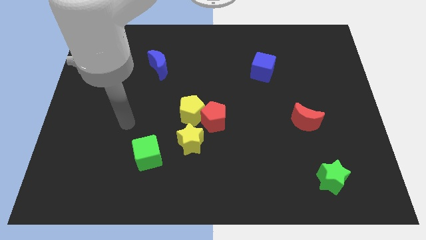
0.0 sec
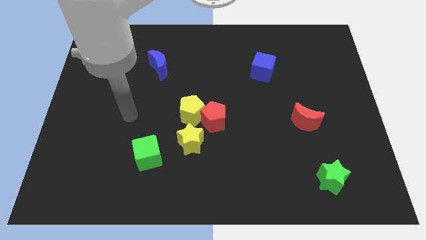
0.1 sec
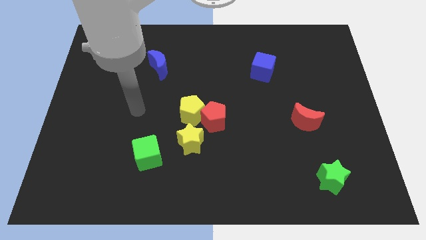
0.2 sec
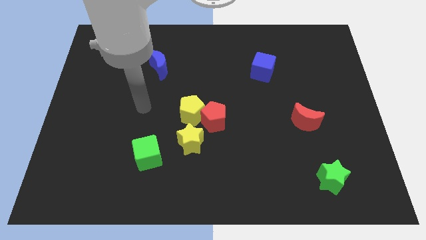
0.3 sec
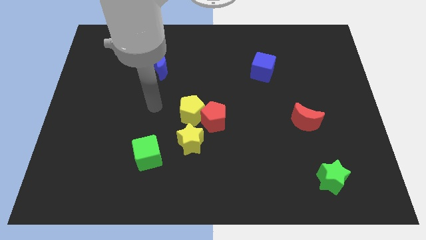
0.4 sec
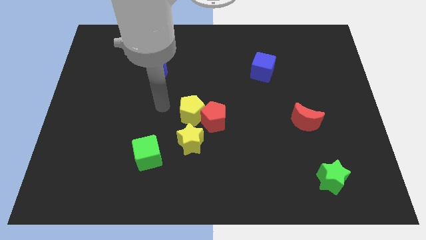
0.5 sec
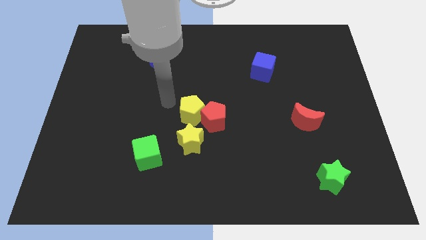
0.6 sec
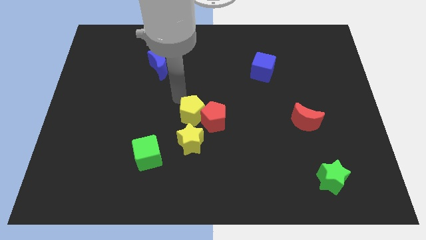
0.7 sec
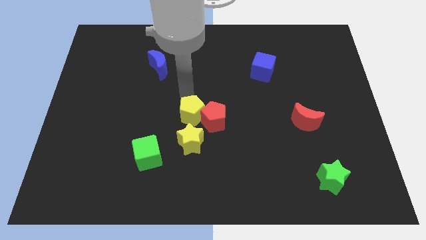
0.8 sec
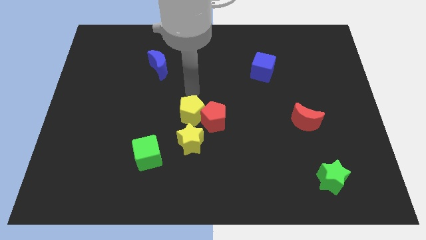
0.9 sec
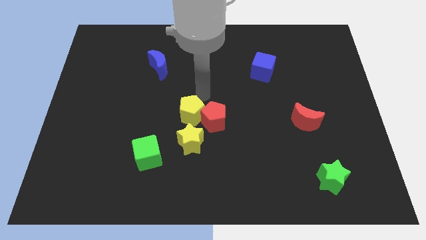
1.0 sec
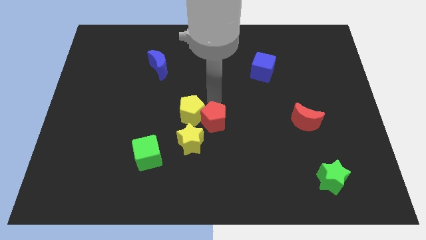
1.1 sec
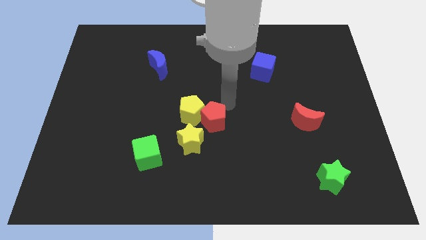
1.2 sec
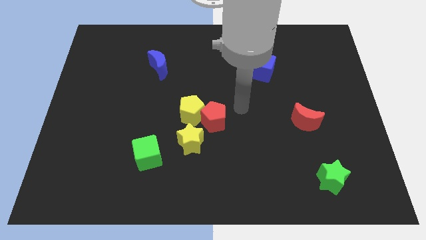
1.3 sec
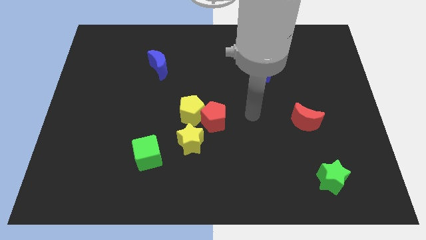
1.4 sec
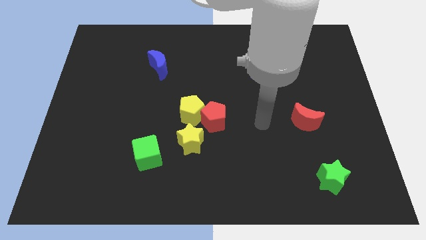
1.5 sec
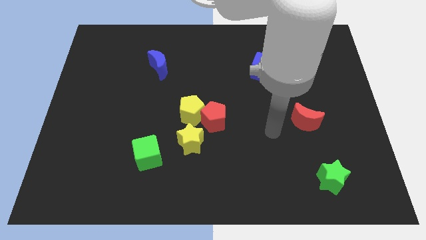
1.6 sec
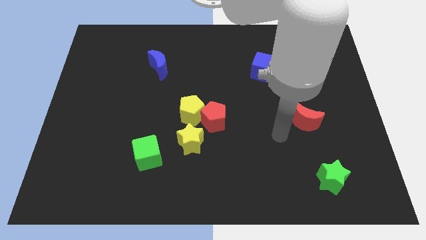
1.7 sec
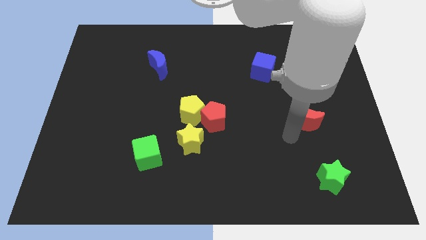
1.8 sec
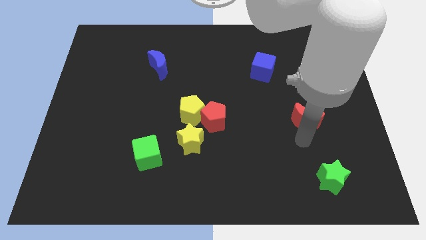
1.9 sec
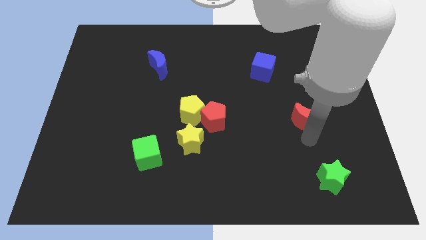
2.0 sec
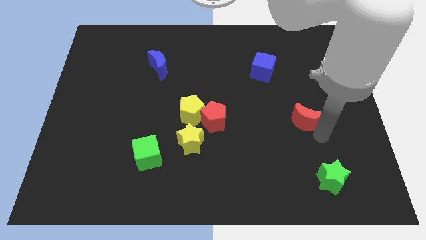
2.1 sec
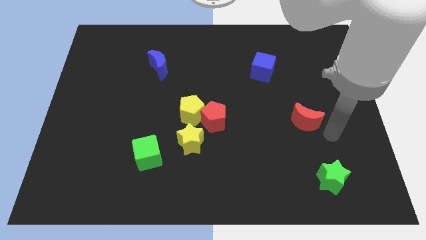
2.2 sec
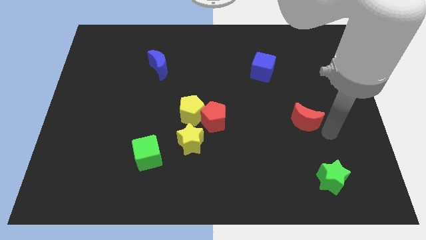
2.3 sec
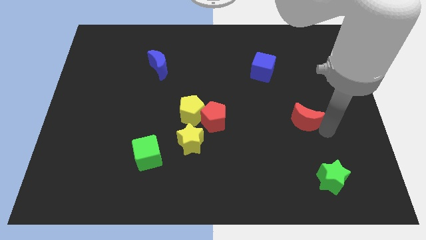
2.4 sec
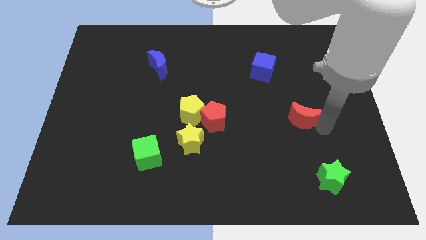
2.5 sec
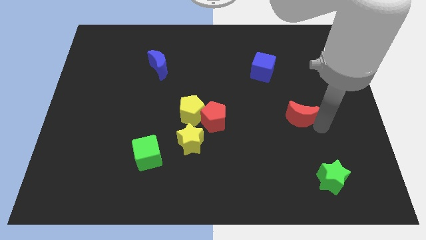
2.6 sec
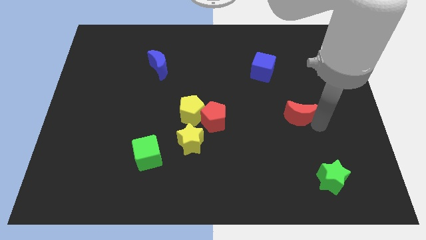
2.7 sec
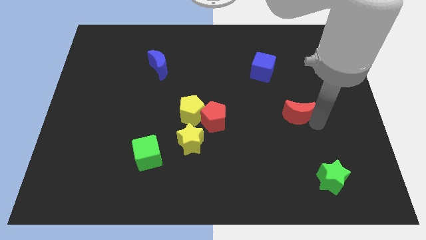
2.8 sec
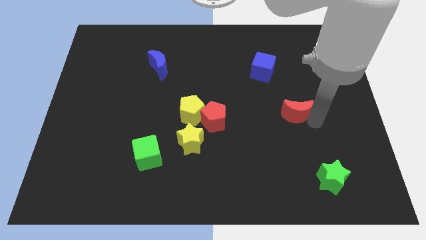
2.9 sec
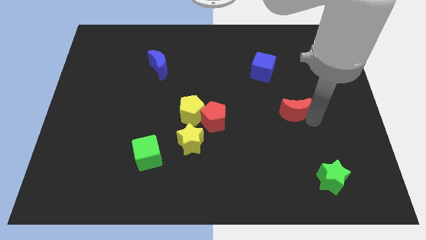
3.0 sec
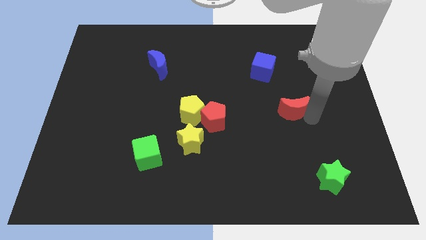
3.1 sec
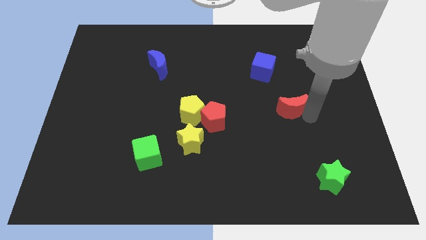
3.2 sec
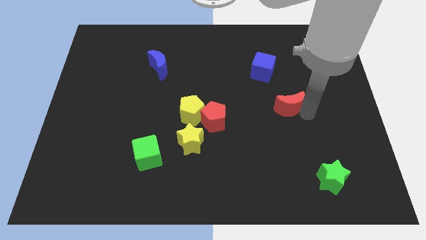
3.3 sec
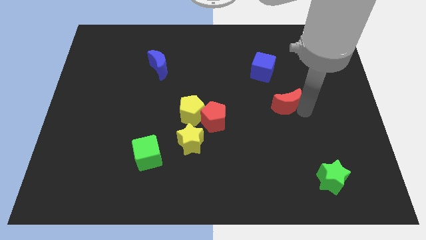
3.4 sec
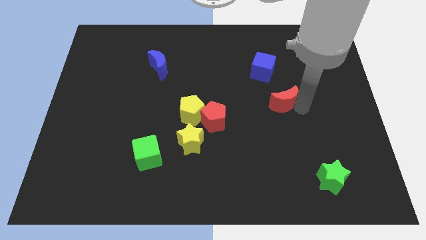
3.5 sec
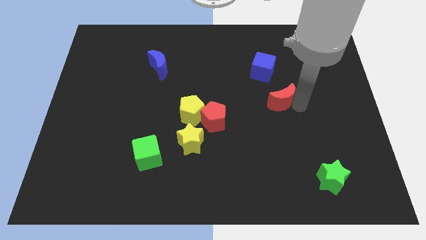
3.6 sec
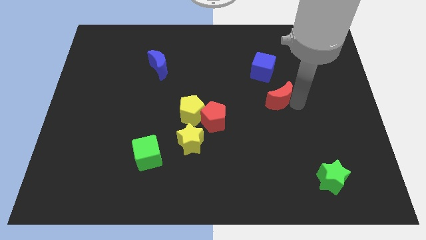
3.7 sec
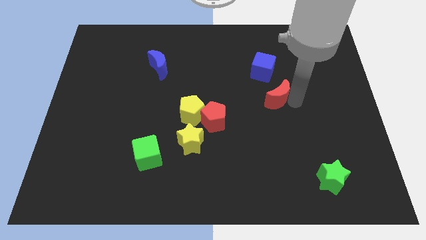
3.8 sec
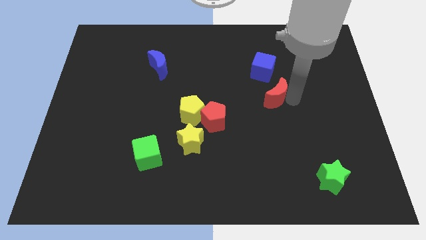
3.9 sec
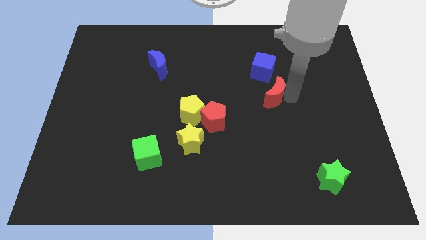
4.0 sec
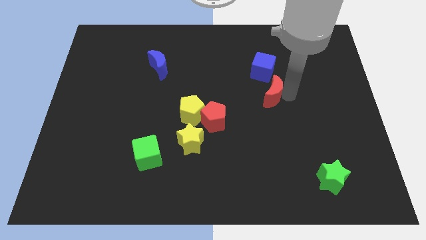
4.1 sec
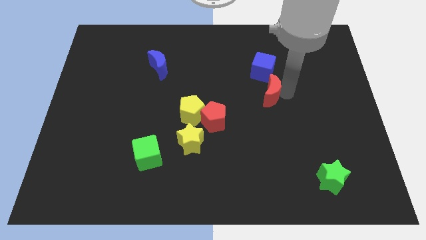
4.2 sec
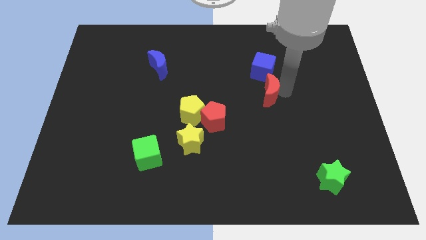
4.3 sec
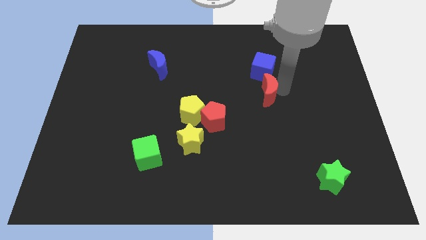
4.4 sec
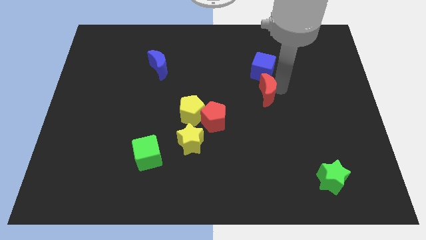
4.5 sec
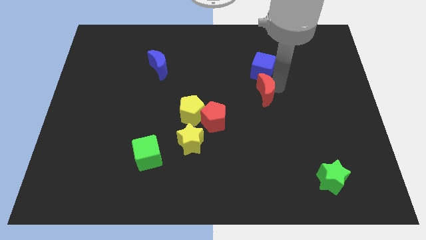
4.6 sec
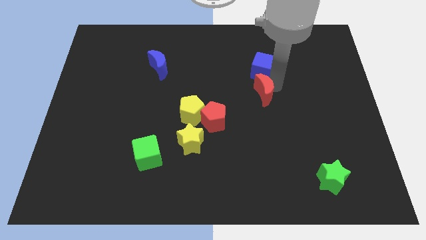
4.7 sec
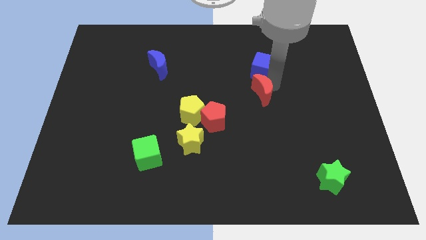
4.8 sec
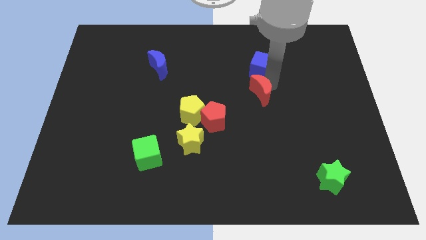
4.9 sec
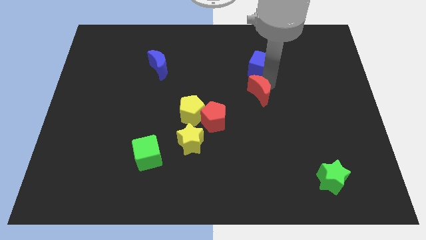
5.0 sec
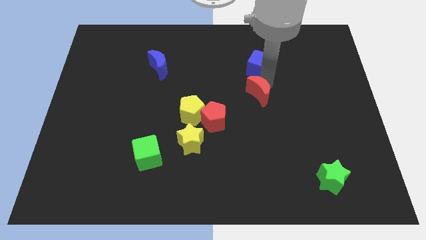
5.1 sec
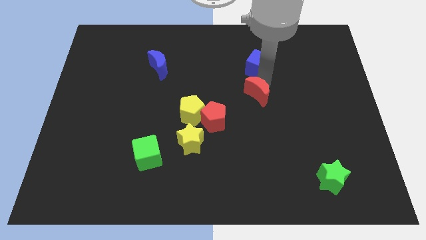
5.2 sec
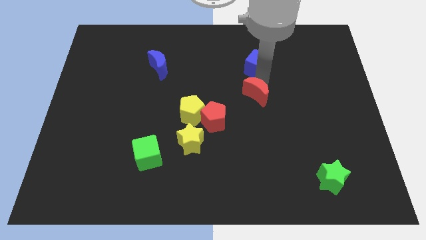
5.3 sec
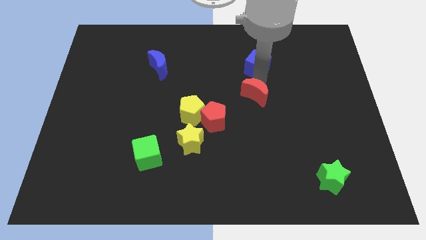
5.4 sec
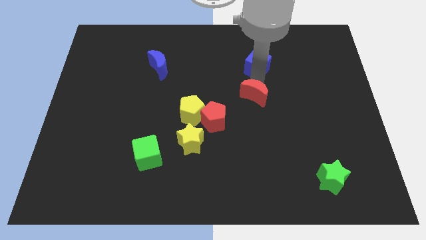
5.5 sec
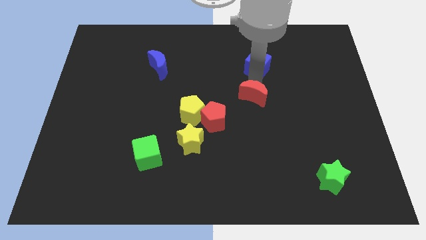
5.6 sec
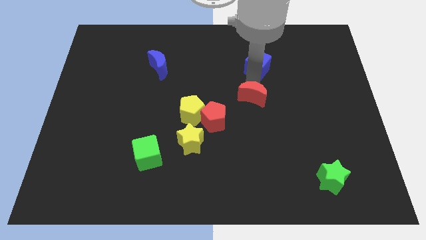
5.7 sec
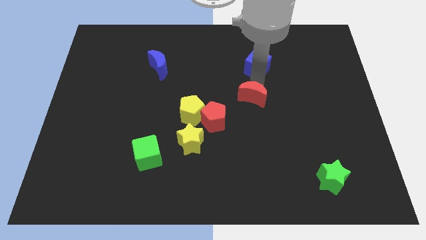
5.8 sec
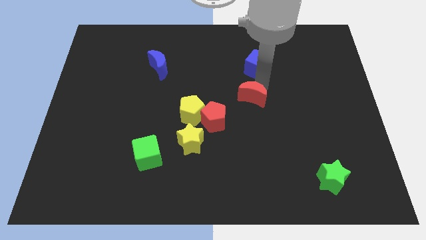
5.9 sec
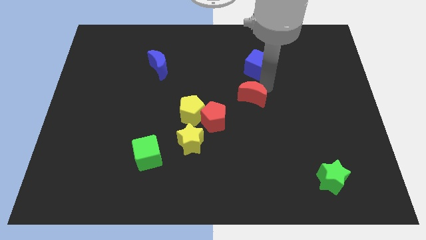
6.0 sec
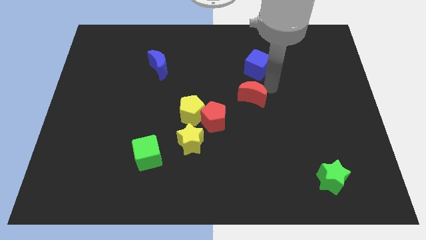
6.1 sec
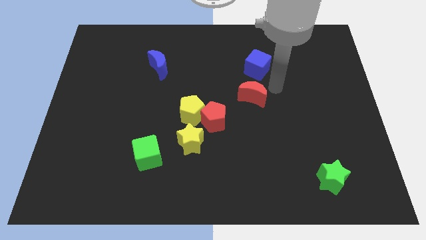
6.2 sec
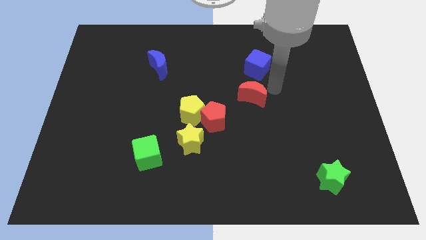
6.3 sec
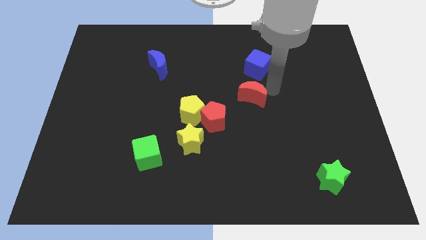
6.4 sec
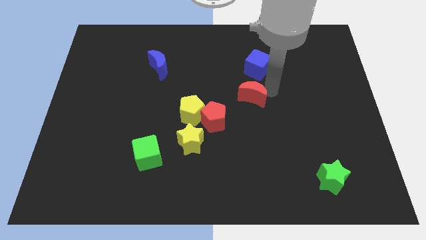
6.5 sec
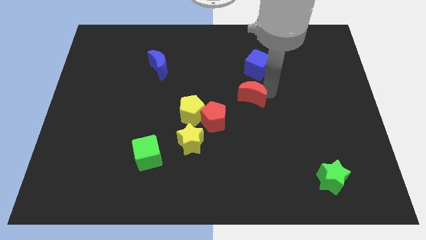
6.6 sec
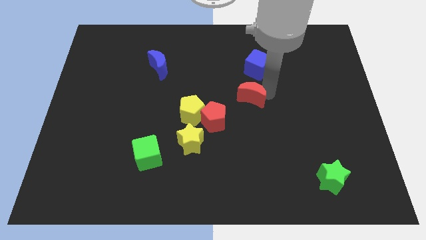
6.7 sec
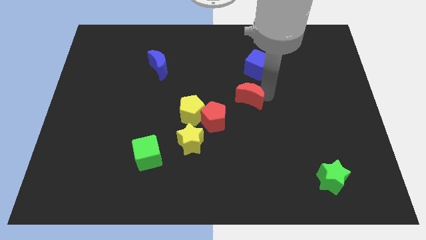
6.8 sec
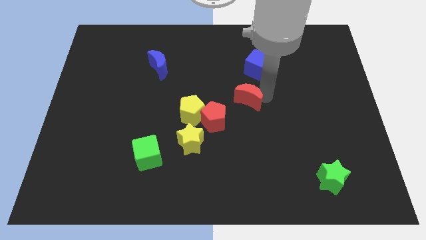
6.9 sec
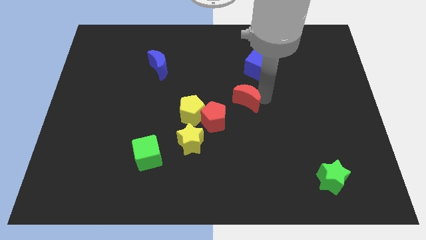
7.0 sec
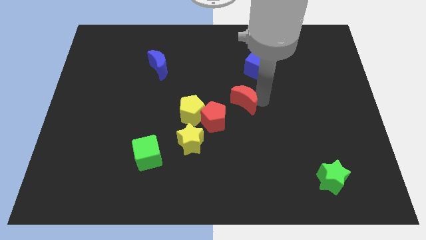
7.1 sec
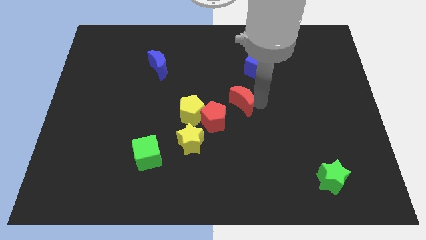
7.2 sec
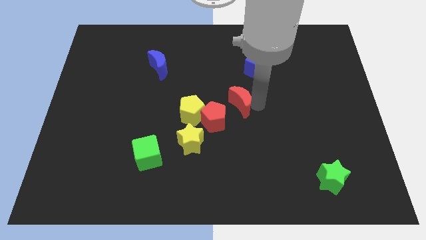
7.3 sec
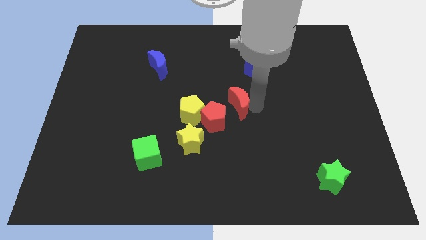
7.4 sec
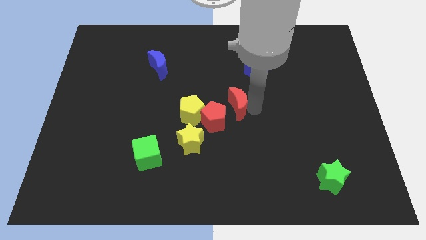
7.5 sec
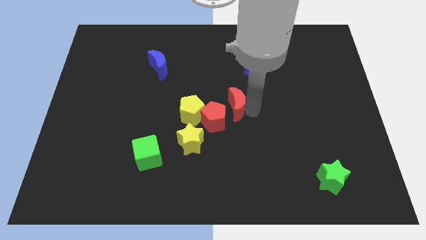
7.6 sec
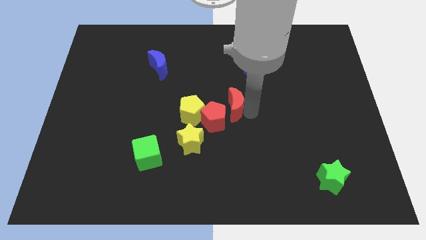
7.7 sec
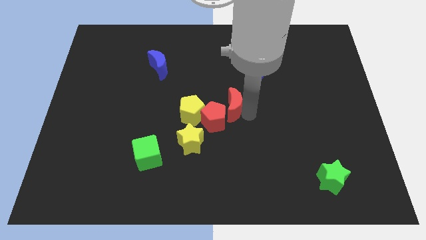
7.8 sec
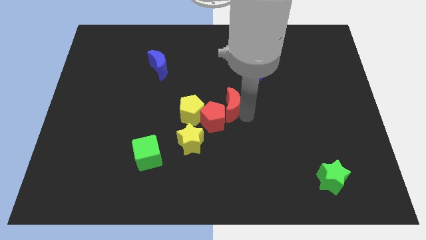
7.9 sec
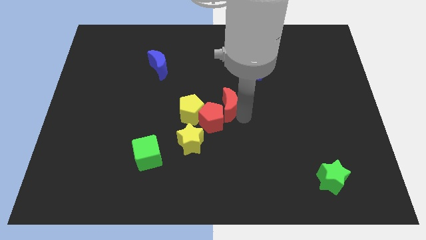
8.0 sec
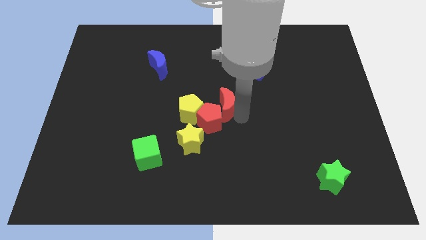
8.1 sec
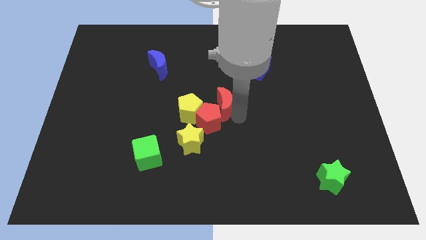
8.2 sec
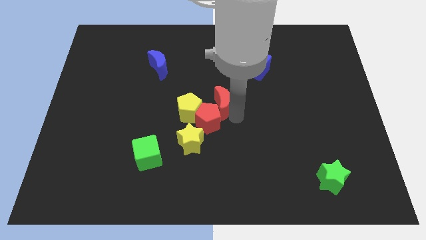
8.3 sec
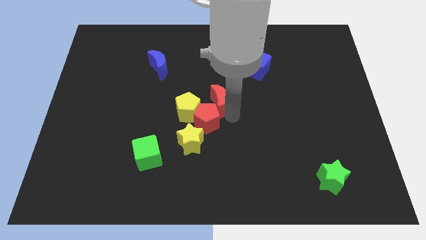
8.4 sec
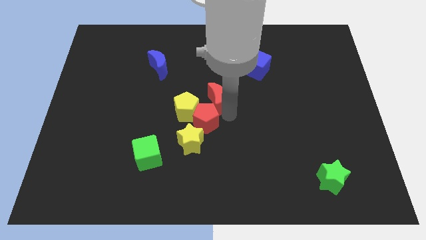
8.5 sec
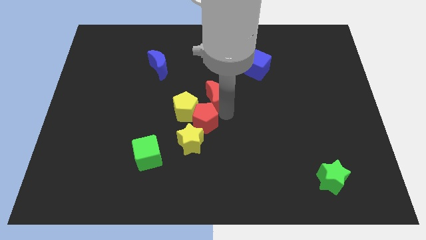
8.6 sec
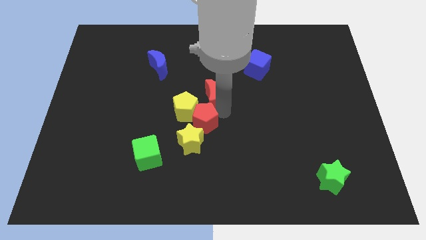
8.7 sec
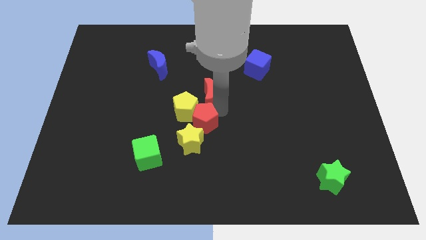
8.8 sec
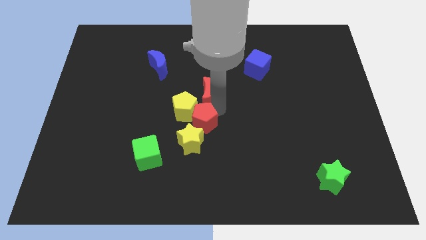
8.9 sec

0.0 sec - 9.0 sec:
move the red moon to the left
